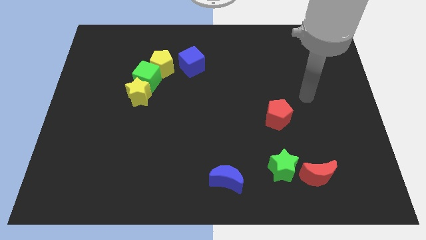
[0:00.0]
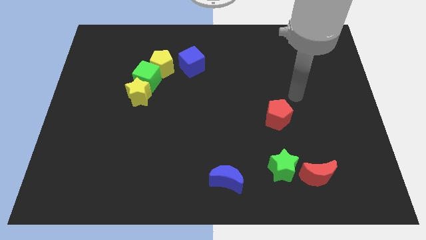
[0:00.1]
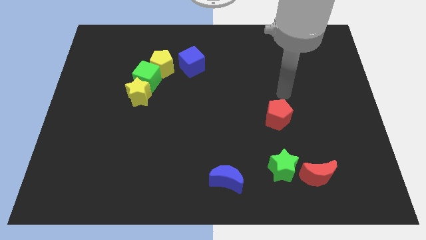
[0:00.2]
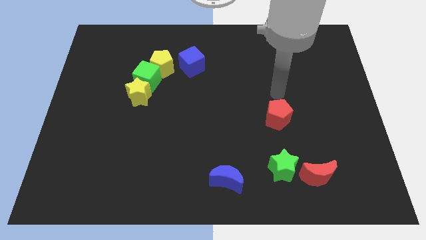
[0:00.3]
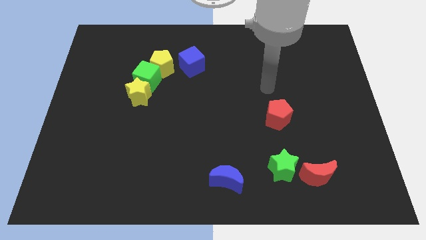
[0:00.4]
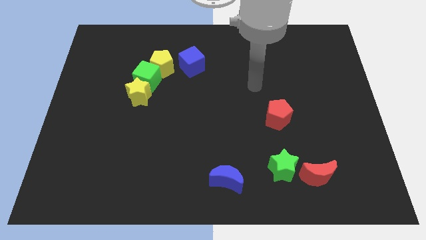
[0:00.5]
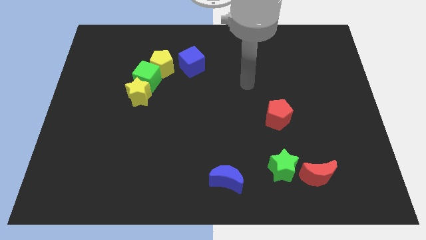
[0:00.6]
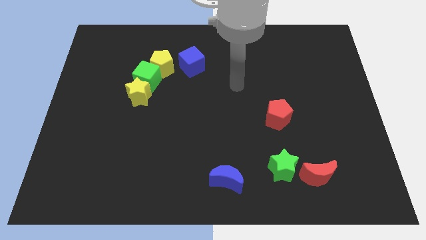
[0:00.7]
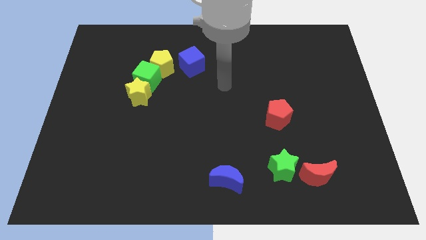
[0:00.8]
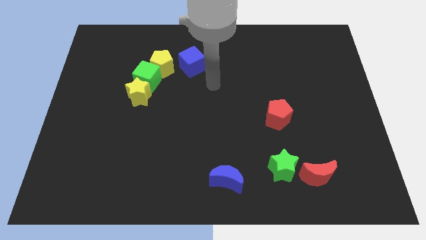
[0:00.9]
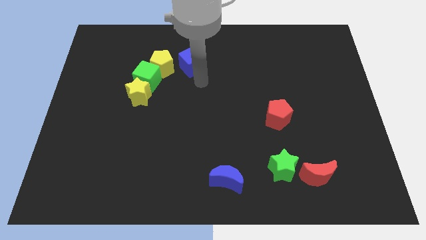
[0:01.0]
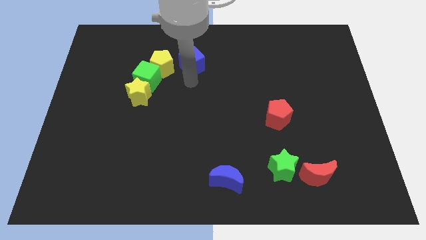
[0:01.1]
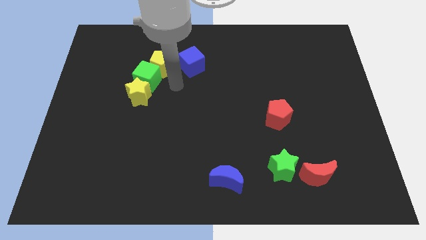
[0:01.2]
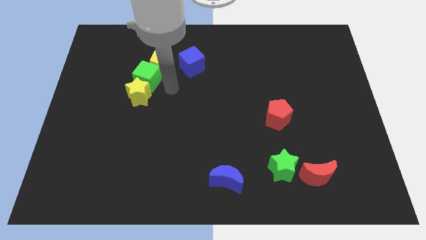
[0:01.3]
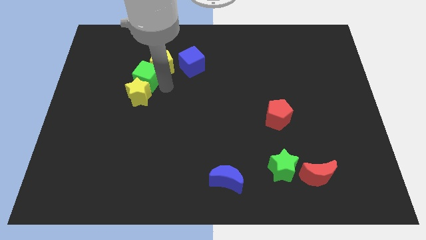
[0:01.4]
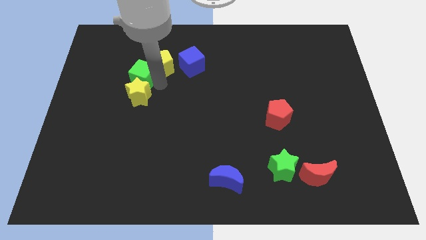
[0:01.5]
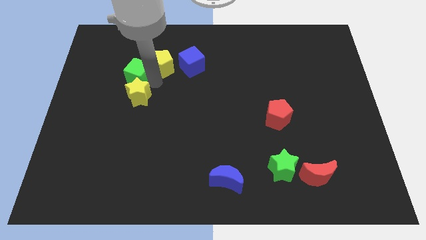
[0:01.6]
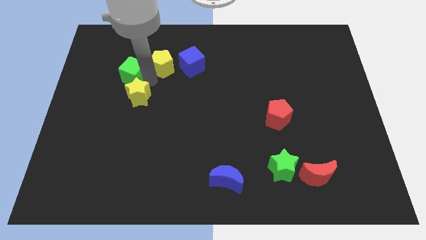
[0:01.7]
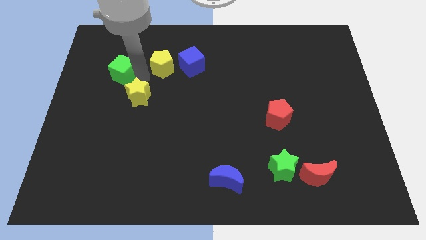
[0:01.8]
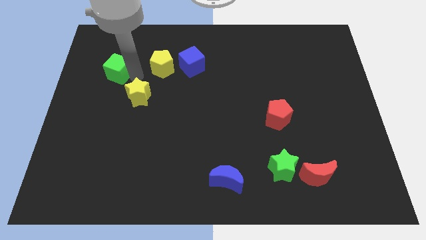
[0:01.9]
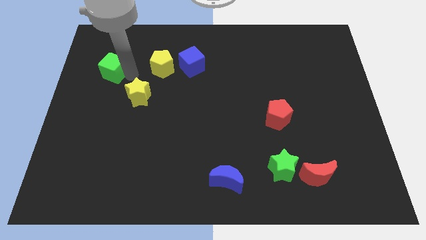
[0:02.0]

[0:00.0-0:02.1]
move the green cube away from the yellow pentagon and yellow star

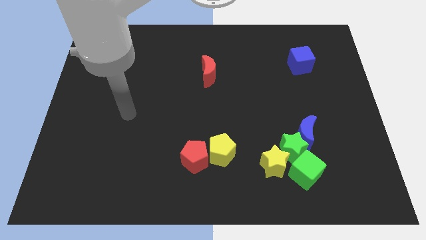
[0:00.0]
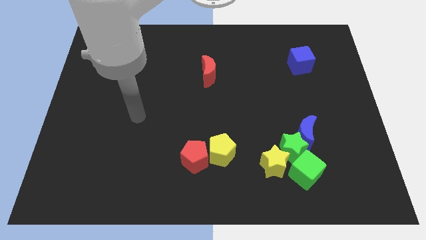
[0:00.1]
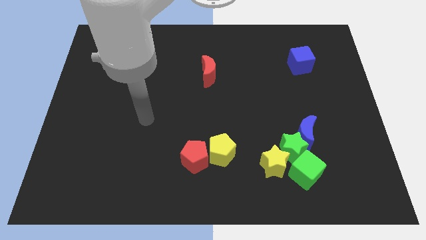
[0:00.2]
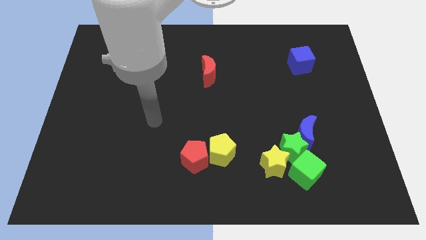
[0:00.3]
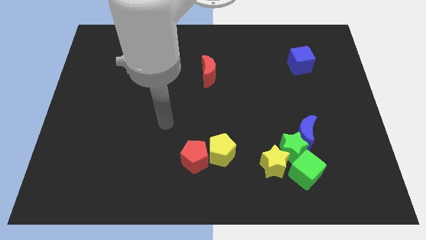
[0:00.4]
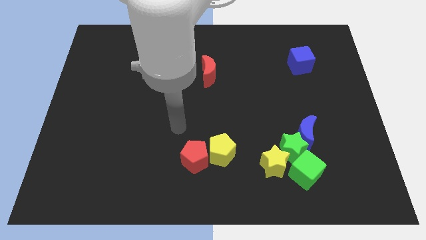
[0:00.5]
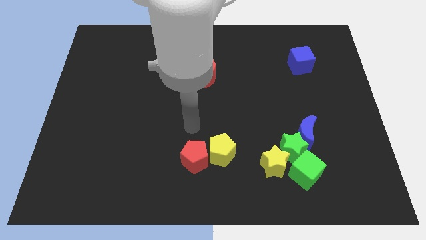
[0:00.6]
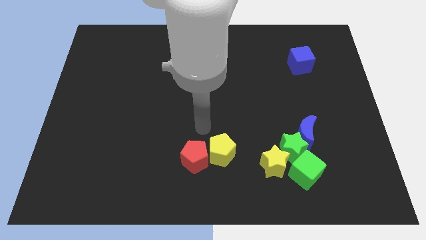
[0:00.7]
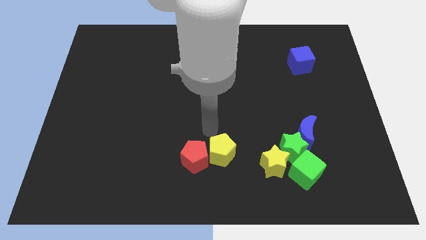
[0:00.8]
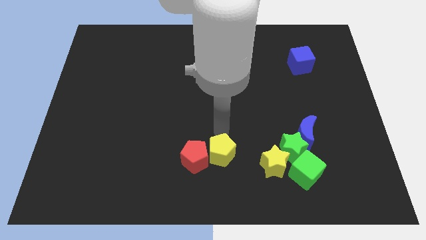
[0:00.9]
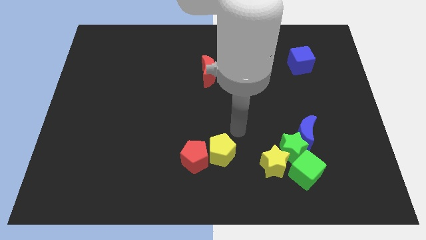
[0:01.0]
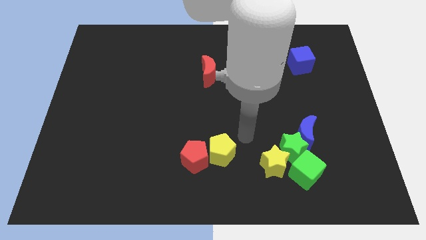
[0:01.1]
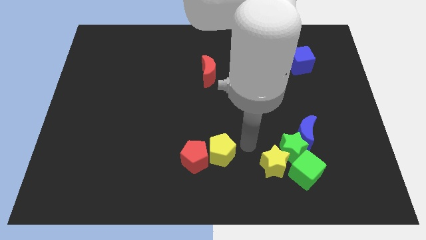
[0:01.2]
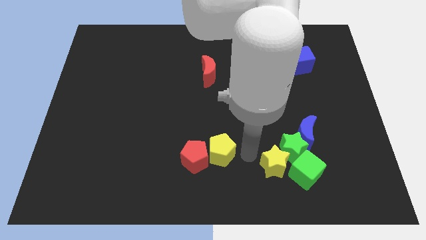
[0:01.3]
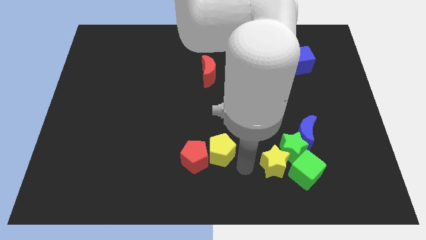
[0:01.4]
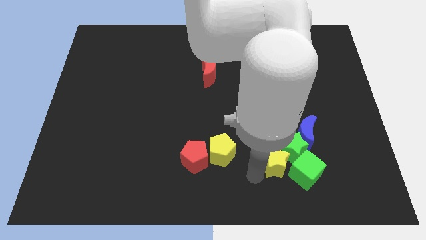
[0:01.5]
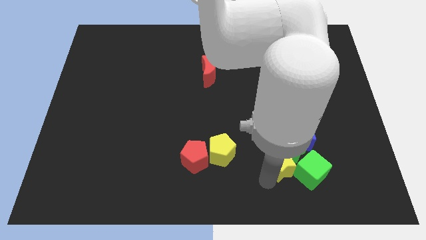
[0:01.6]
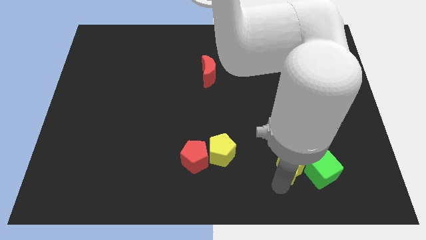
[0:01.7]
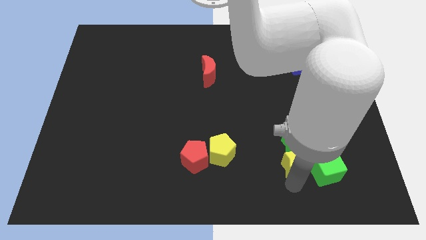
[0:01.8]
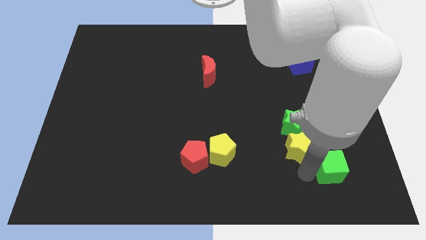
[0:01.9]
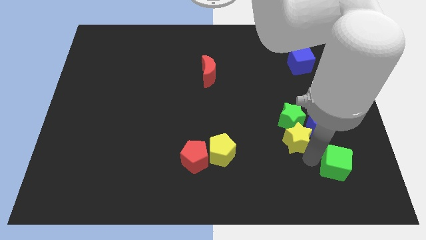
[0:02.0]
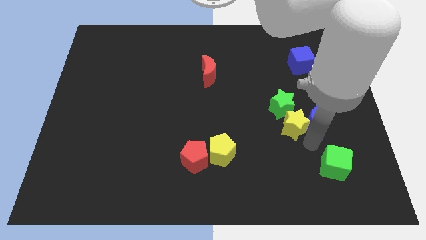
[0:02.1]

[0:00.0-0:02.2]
separate the green star from the yellow star, blue moon, and green cube

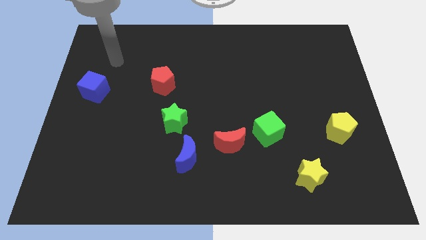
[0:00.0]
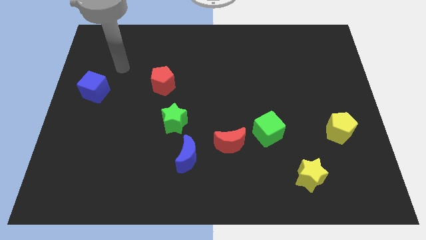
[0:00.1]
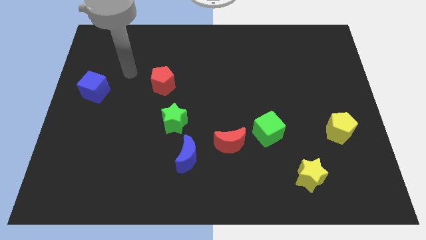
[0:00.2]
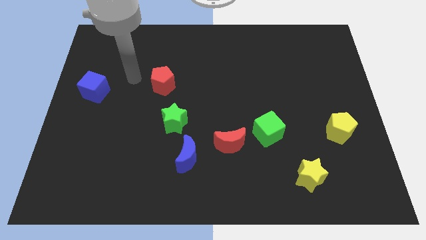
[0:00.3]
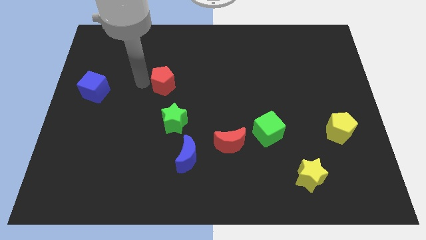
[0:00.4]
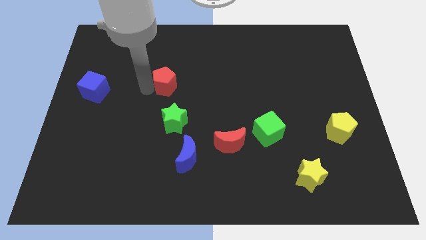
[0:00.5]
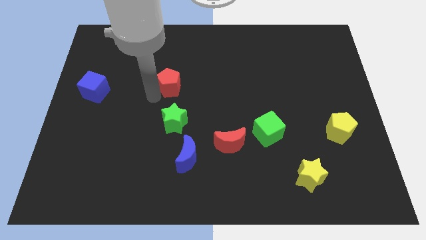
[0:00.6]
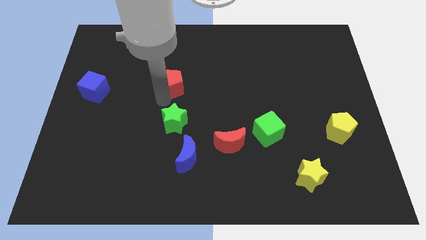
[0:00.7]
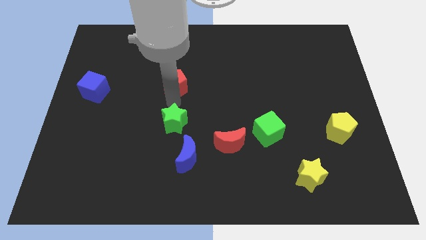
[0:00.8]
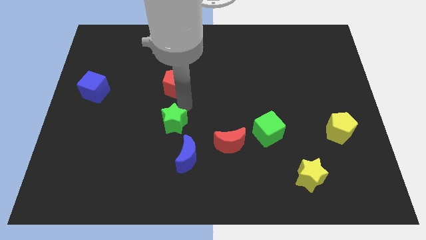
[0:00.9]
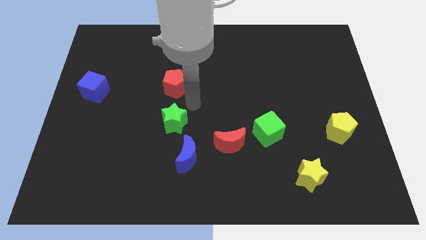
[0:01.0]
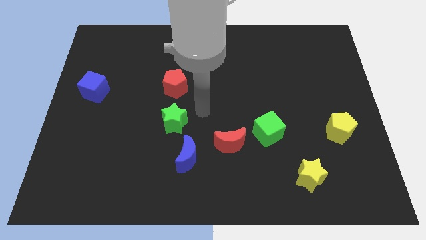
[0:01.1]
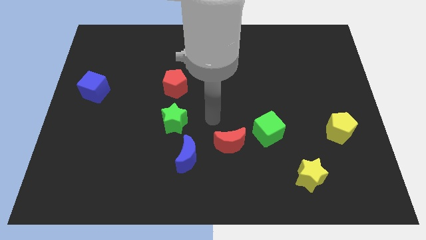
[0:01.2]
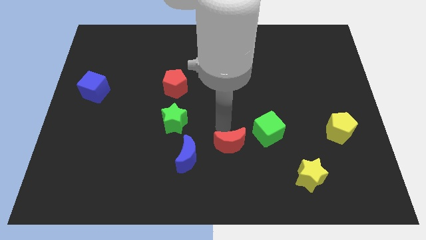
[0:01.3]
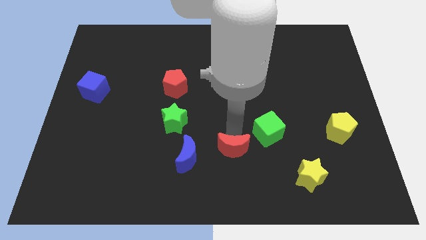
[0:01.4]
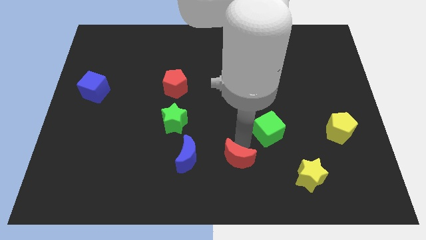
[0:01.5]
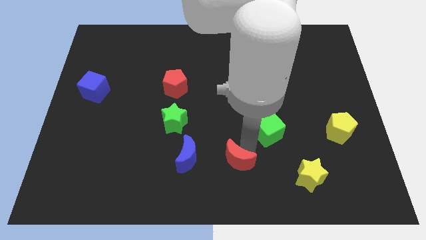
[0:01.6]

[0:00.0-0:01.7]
pull the green cube apart from the red moon

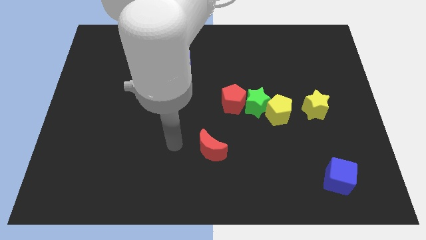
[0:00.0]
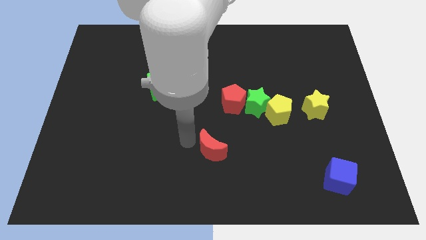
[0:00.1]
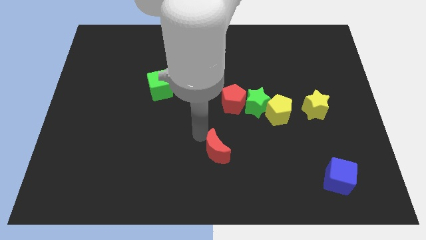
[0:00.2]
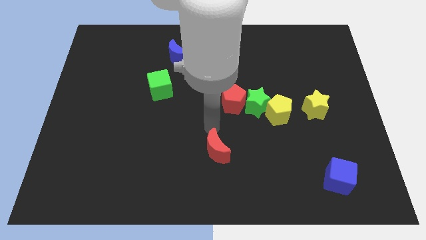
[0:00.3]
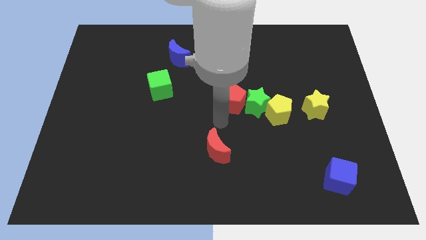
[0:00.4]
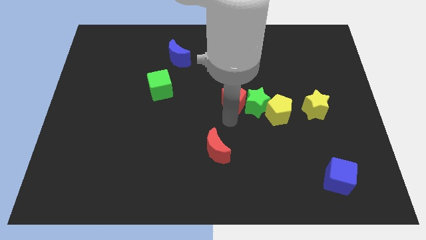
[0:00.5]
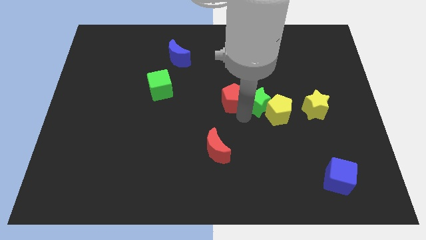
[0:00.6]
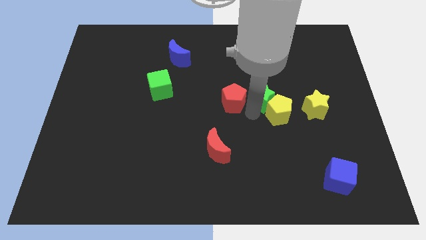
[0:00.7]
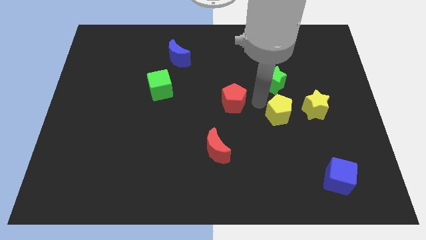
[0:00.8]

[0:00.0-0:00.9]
separate the red pentagon from the green star

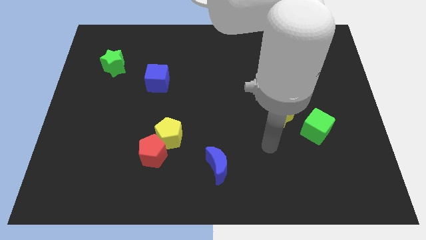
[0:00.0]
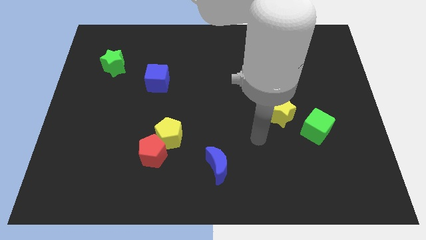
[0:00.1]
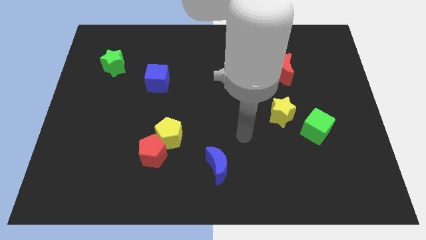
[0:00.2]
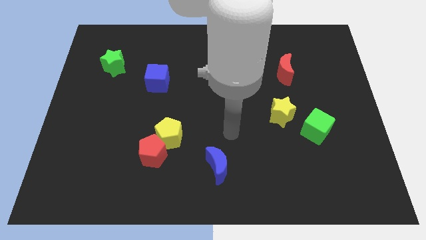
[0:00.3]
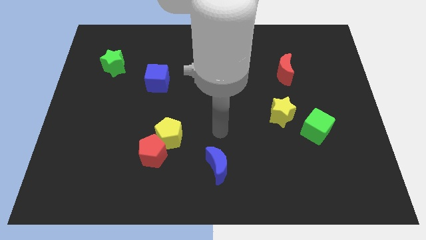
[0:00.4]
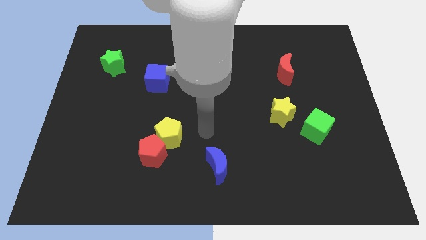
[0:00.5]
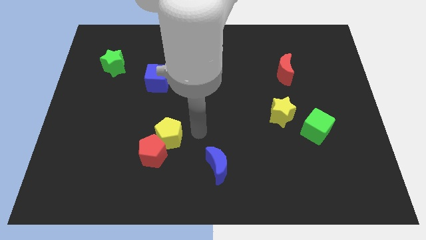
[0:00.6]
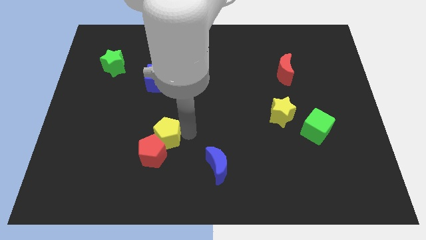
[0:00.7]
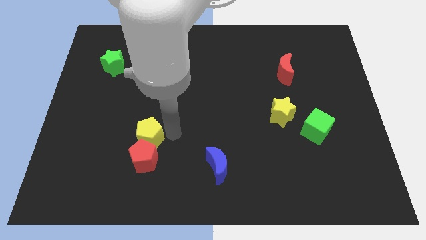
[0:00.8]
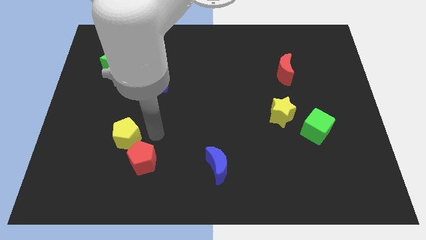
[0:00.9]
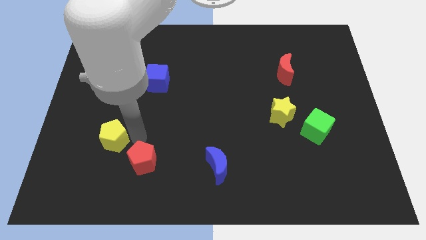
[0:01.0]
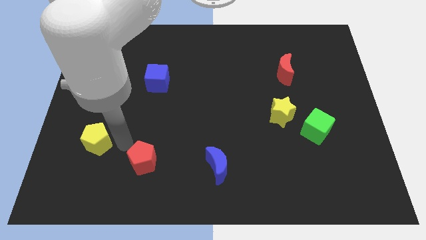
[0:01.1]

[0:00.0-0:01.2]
separate the red pentagon from the yellow pentagon

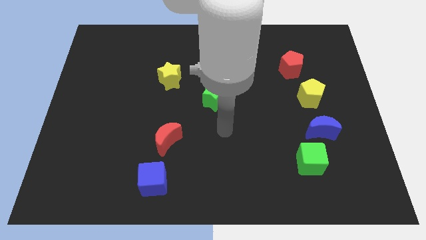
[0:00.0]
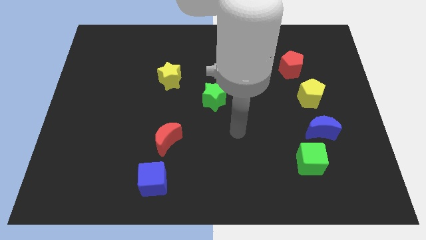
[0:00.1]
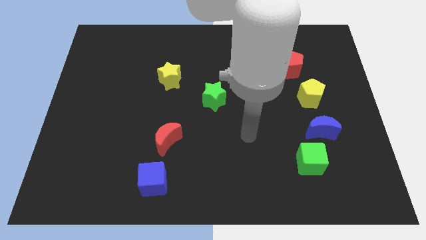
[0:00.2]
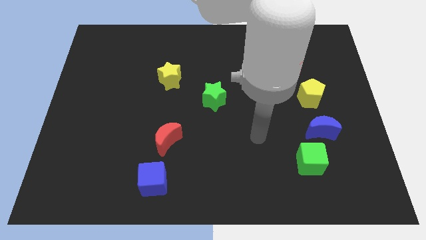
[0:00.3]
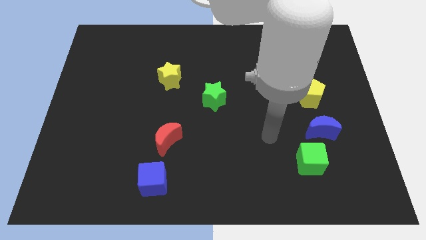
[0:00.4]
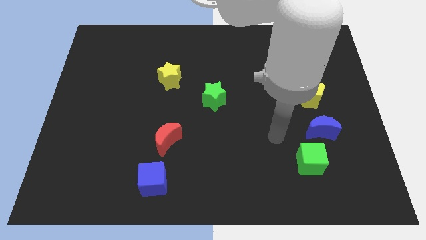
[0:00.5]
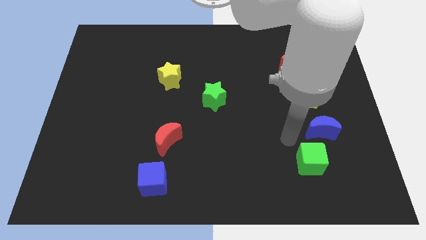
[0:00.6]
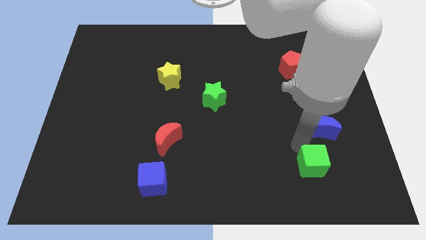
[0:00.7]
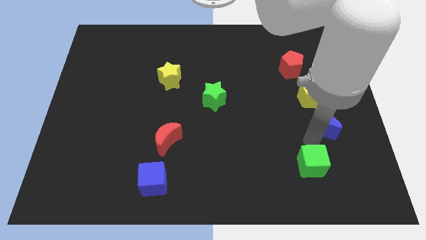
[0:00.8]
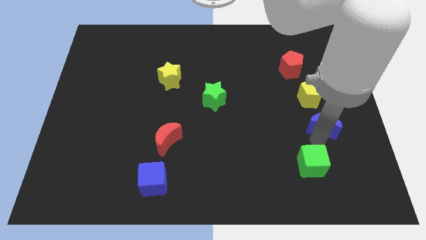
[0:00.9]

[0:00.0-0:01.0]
pull the green cube apart from the blue moon

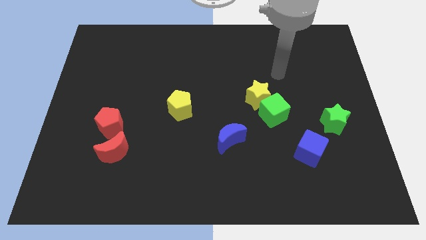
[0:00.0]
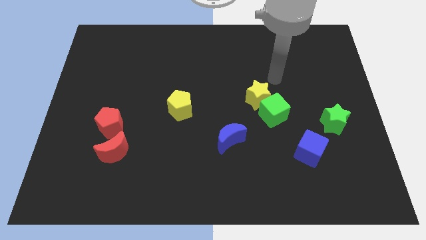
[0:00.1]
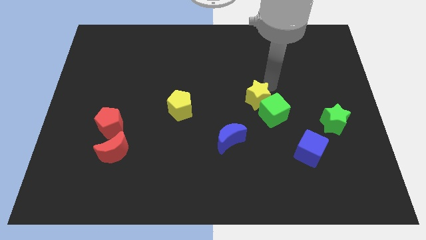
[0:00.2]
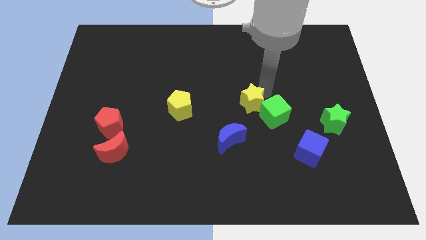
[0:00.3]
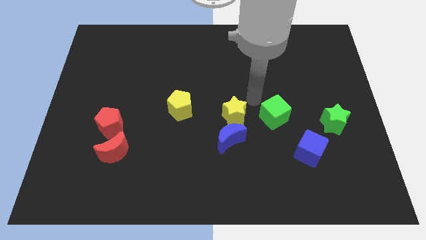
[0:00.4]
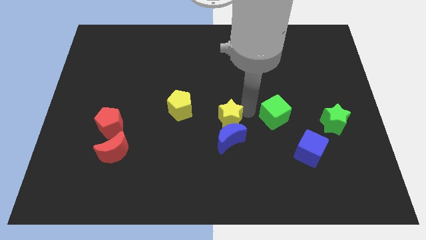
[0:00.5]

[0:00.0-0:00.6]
move the green cube away from the yellow star
